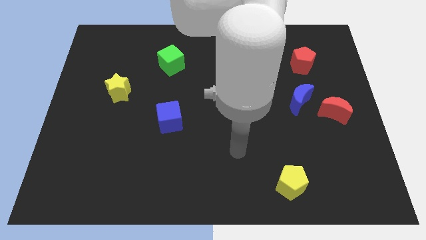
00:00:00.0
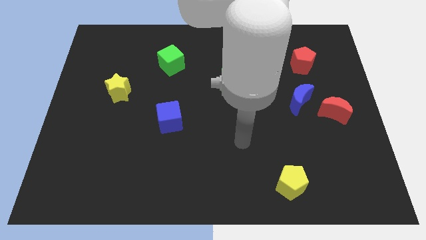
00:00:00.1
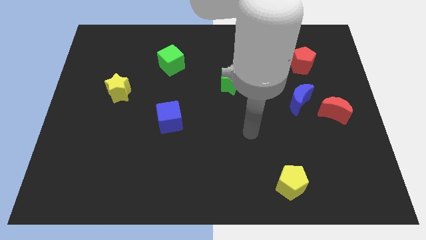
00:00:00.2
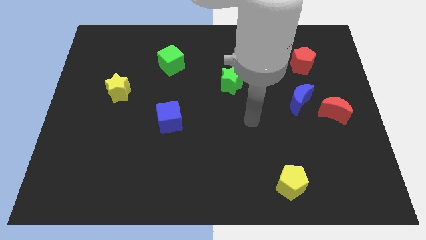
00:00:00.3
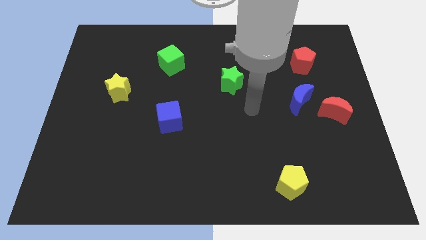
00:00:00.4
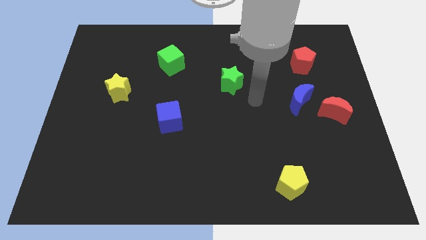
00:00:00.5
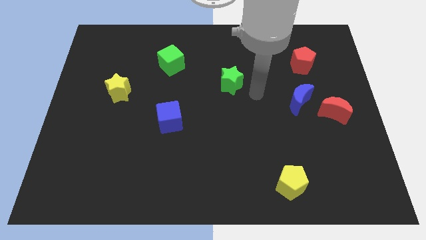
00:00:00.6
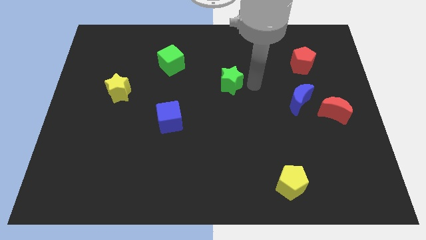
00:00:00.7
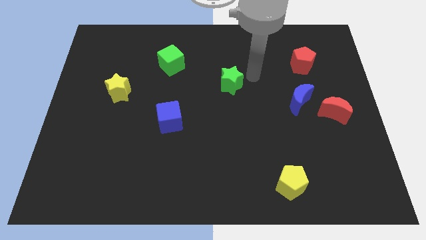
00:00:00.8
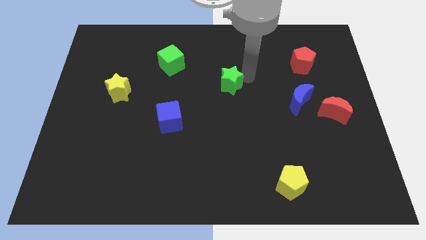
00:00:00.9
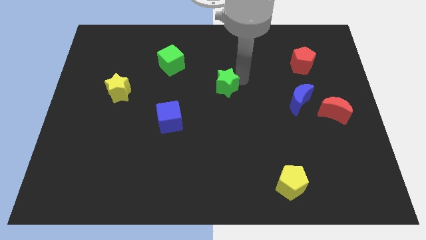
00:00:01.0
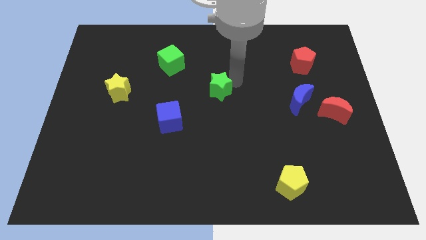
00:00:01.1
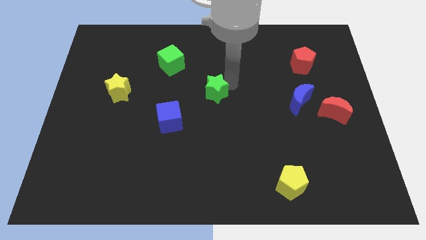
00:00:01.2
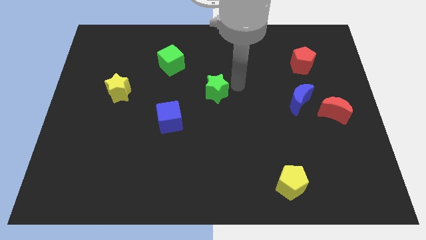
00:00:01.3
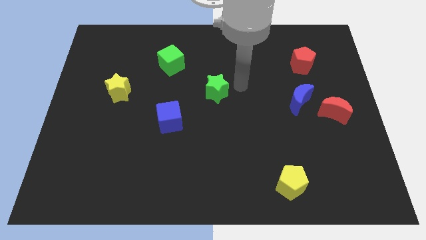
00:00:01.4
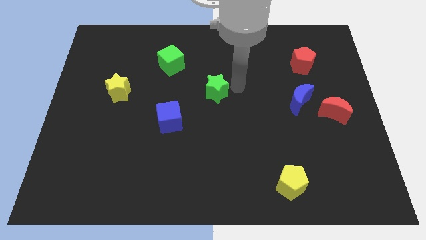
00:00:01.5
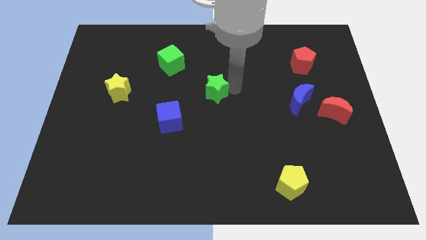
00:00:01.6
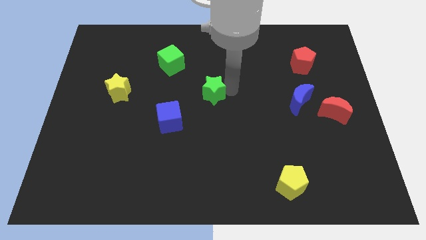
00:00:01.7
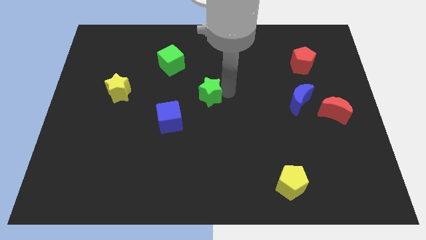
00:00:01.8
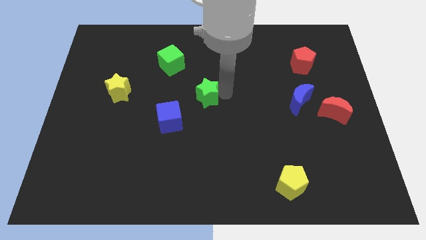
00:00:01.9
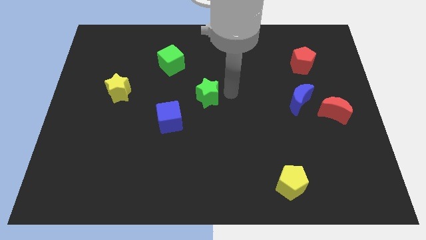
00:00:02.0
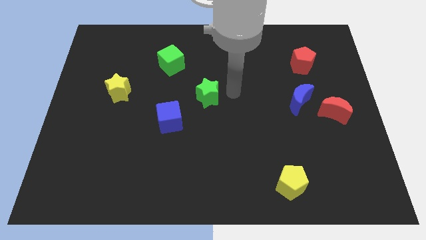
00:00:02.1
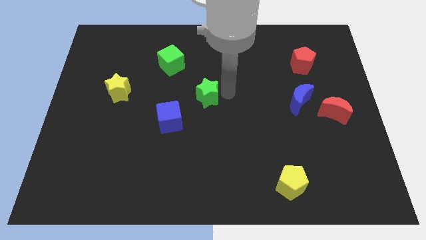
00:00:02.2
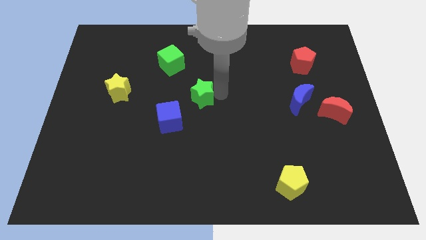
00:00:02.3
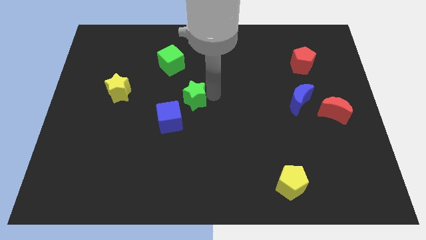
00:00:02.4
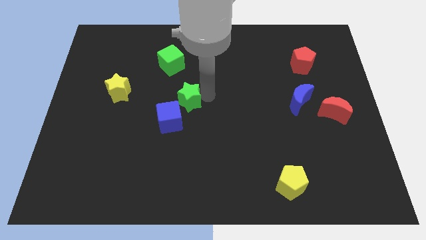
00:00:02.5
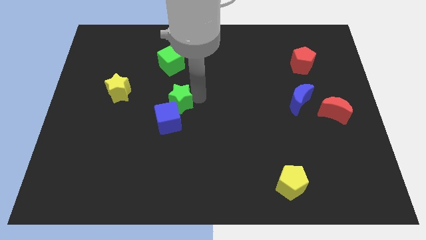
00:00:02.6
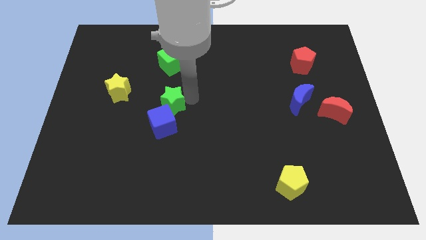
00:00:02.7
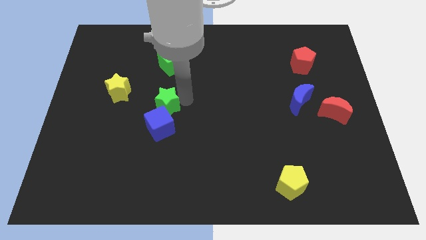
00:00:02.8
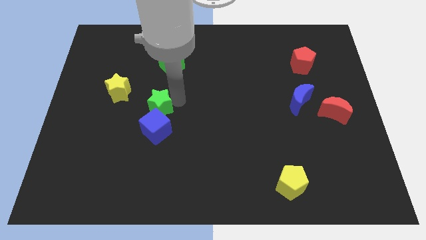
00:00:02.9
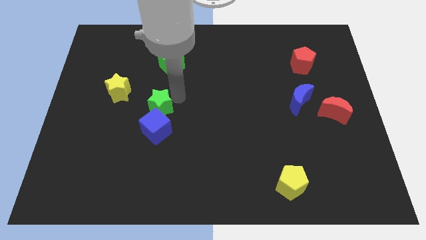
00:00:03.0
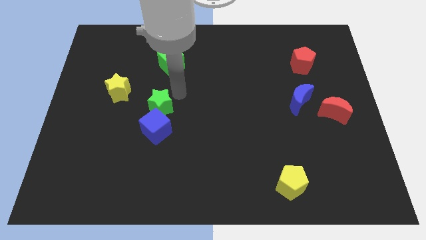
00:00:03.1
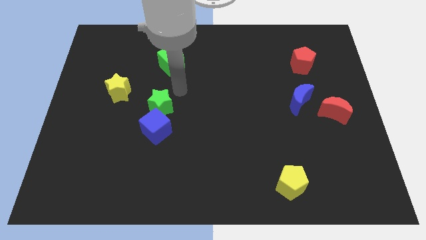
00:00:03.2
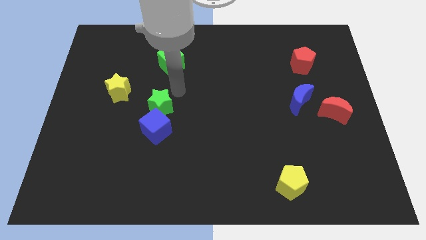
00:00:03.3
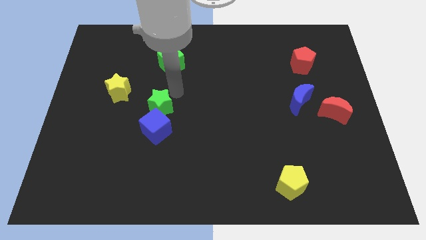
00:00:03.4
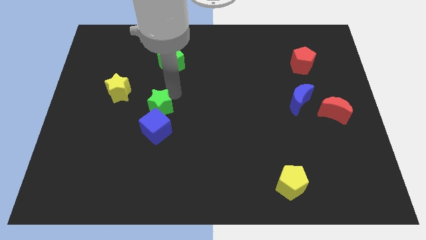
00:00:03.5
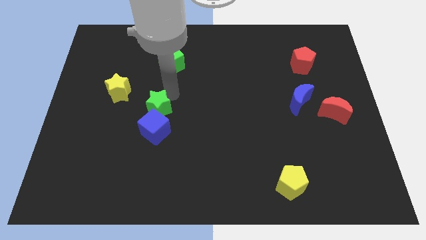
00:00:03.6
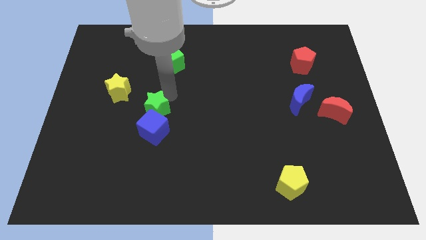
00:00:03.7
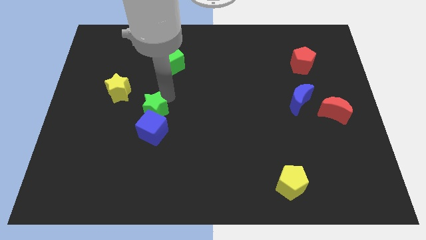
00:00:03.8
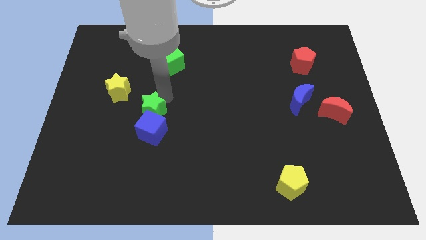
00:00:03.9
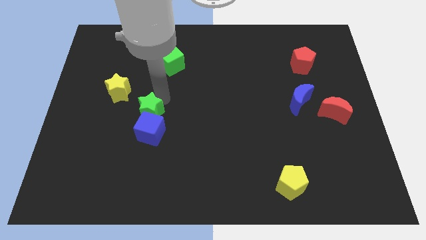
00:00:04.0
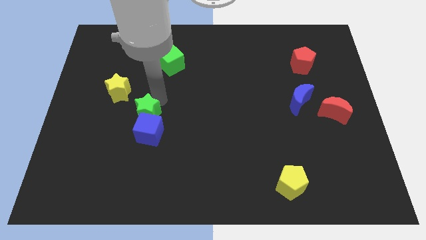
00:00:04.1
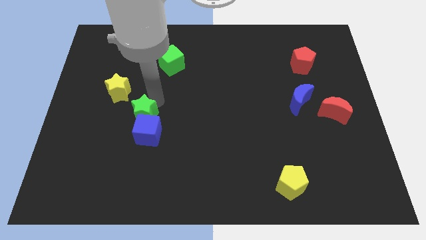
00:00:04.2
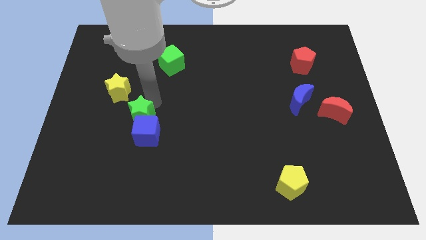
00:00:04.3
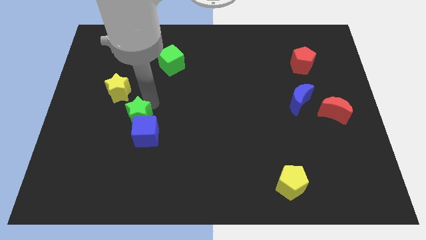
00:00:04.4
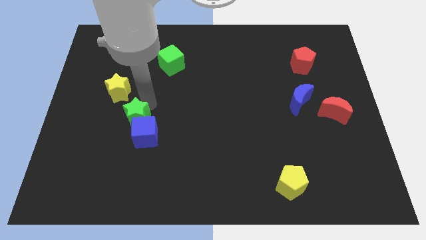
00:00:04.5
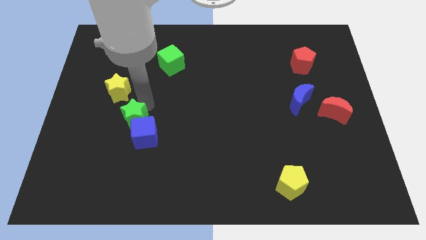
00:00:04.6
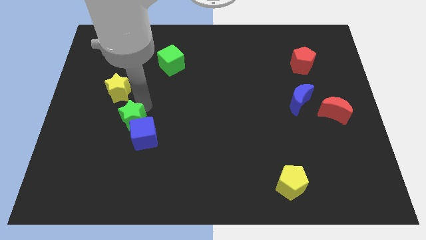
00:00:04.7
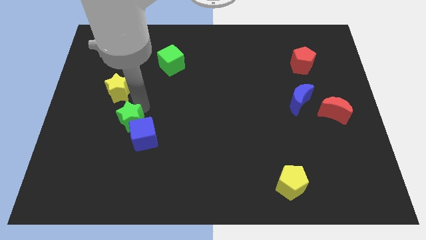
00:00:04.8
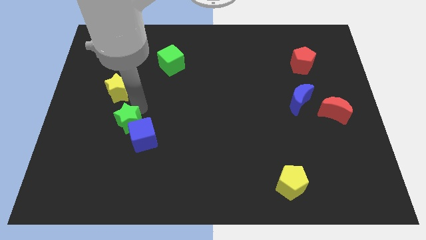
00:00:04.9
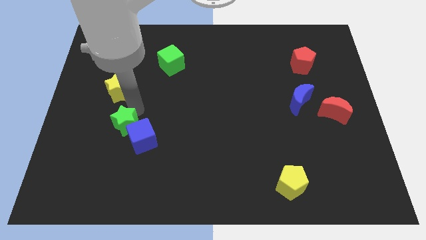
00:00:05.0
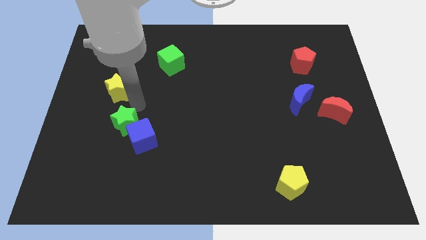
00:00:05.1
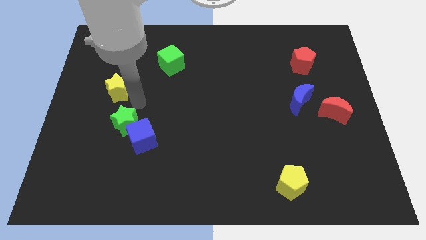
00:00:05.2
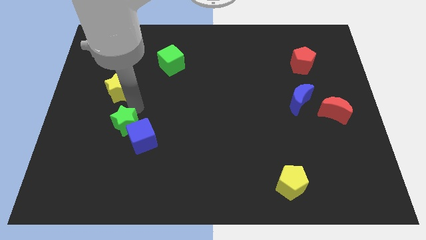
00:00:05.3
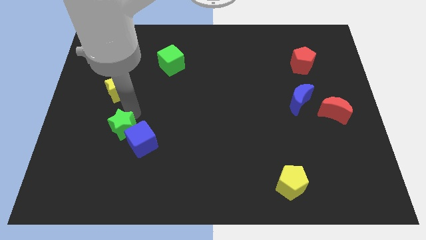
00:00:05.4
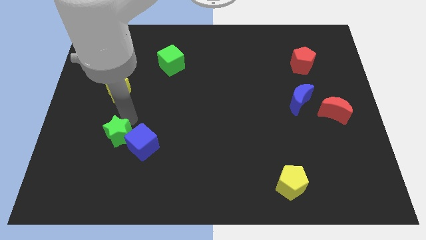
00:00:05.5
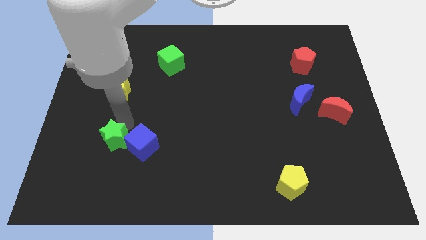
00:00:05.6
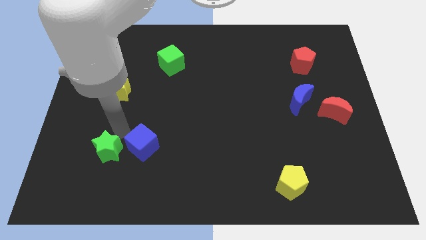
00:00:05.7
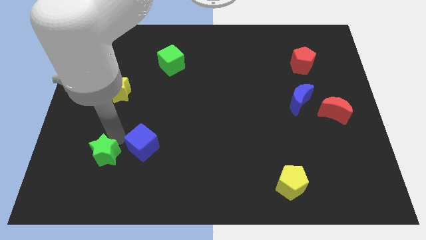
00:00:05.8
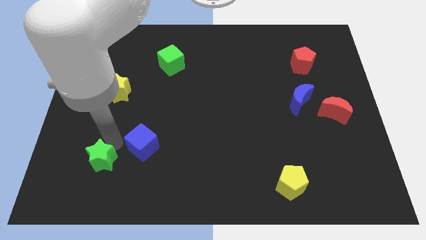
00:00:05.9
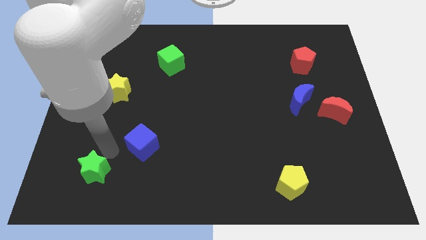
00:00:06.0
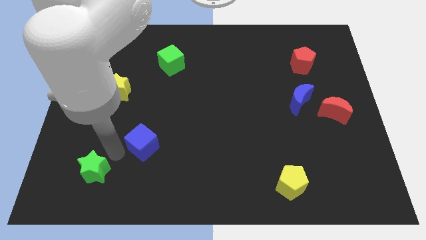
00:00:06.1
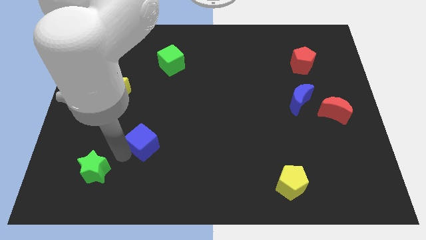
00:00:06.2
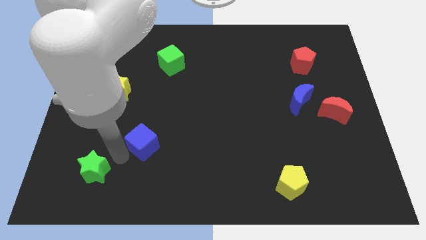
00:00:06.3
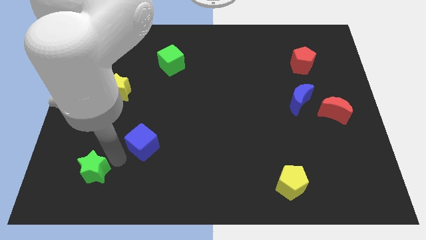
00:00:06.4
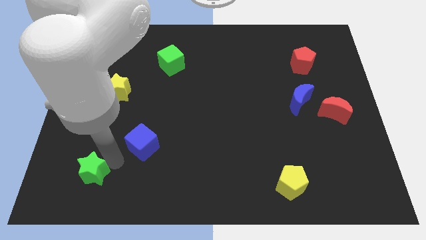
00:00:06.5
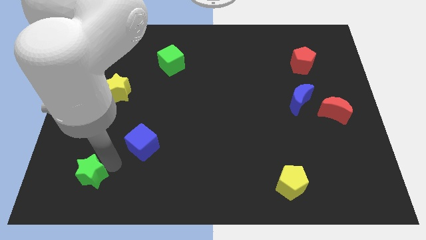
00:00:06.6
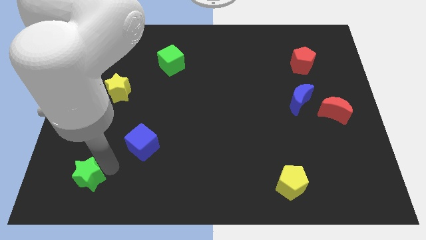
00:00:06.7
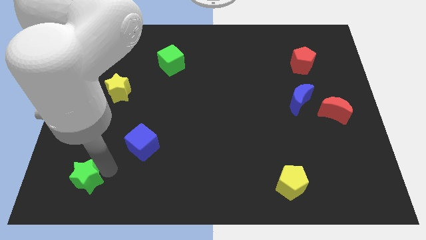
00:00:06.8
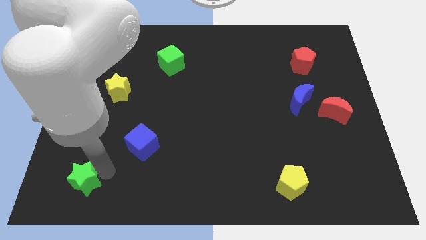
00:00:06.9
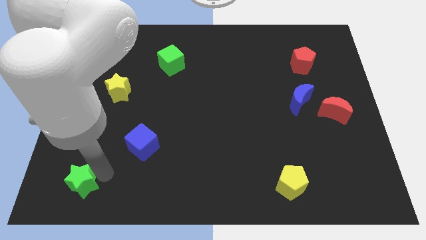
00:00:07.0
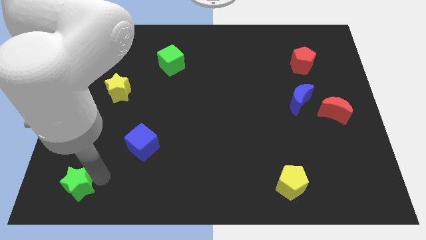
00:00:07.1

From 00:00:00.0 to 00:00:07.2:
push the green star to the bottom left

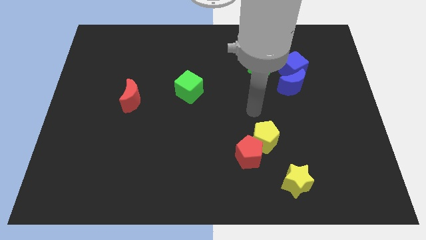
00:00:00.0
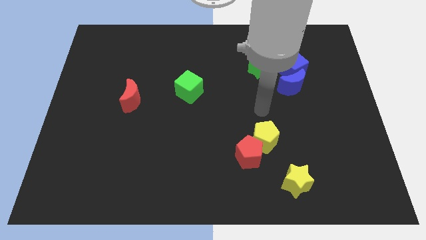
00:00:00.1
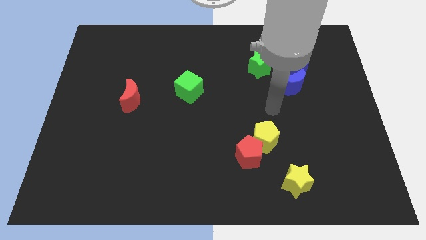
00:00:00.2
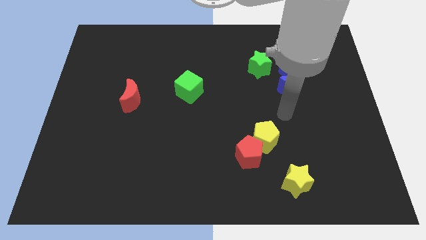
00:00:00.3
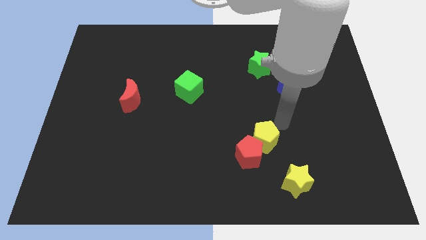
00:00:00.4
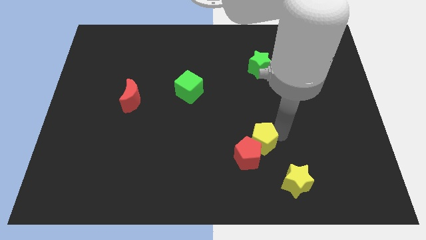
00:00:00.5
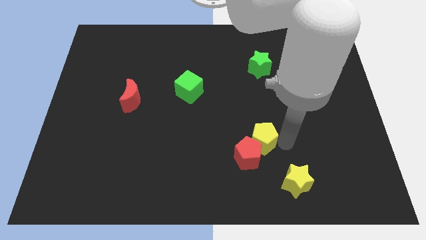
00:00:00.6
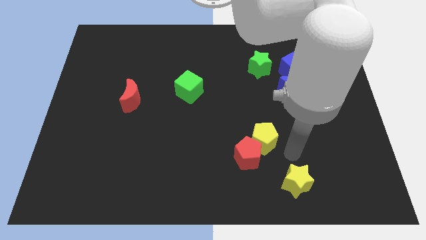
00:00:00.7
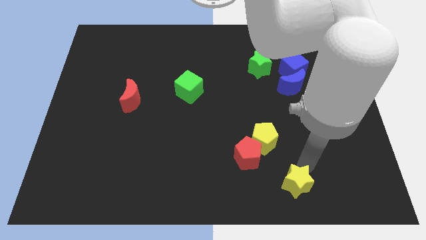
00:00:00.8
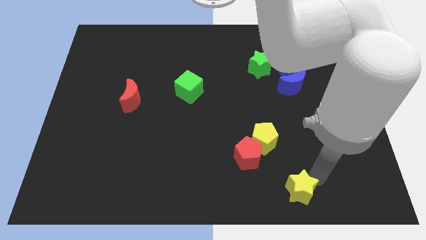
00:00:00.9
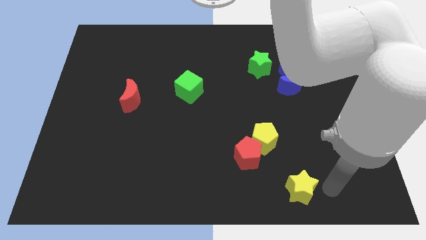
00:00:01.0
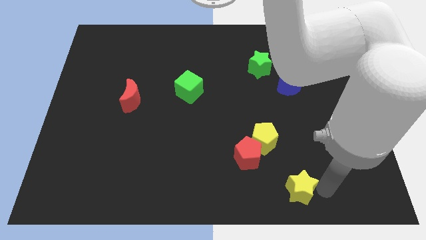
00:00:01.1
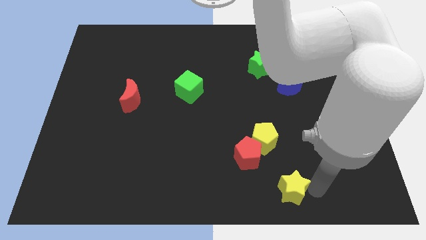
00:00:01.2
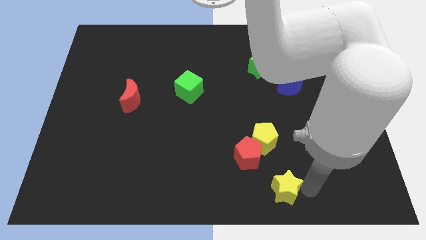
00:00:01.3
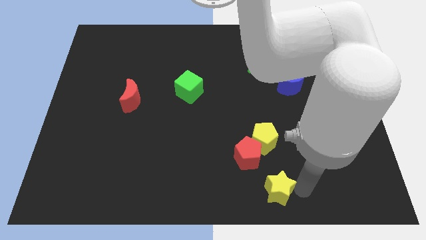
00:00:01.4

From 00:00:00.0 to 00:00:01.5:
slide the yellow star to the bottom side
